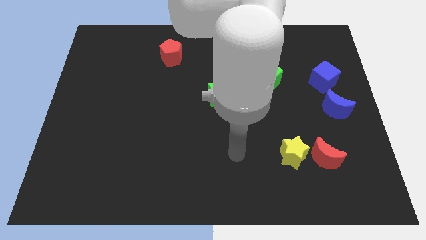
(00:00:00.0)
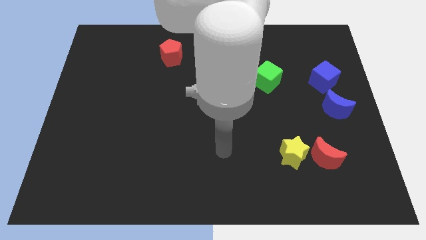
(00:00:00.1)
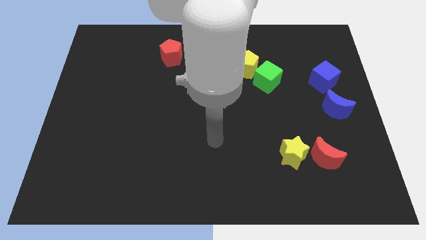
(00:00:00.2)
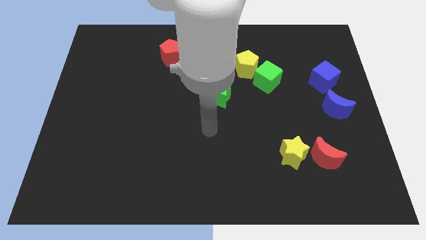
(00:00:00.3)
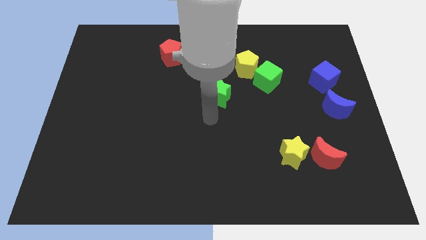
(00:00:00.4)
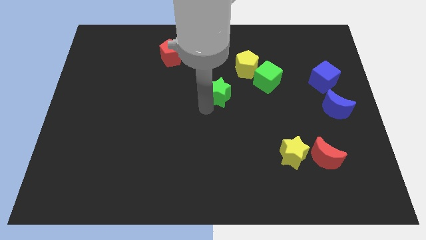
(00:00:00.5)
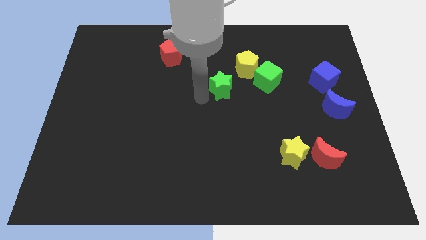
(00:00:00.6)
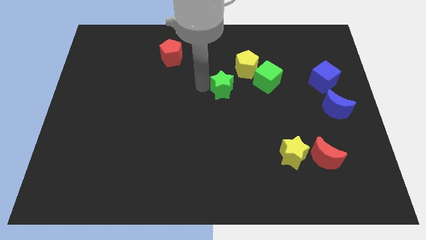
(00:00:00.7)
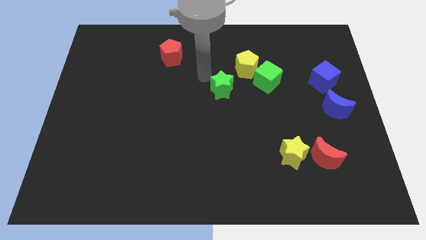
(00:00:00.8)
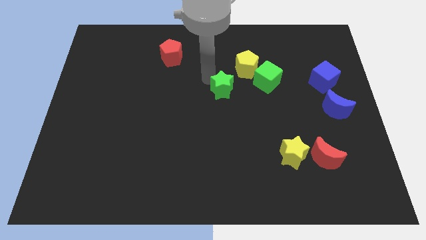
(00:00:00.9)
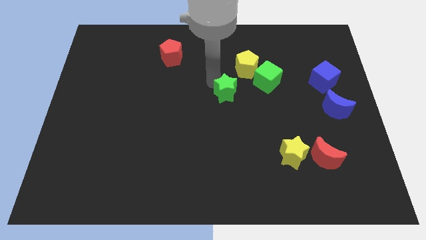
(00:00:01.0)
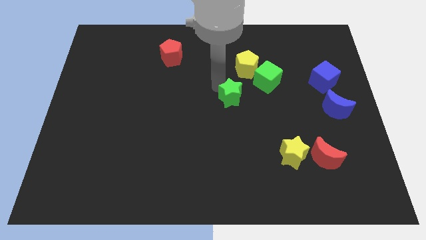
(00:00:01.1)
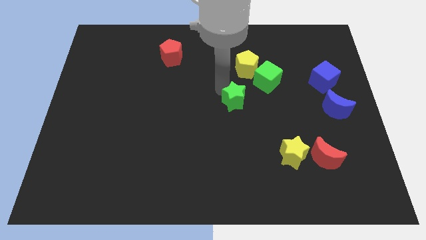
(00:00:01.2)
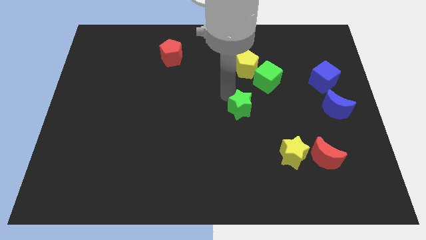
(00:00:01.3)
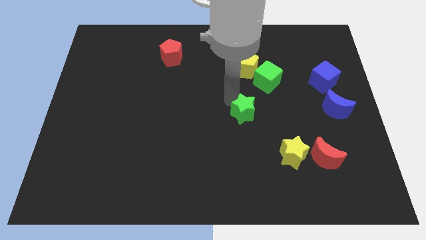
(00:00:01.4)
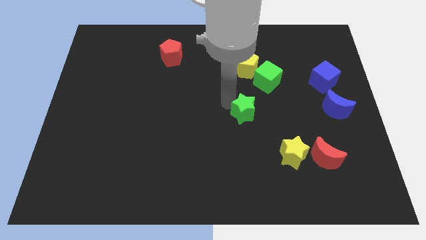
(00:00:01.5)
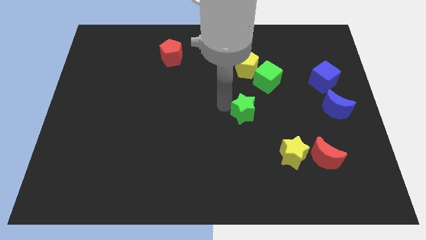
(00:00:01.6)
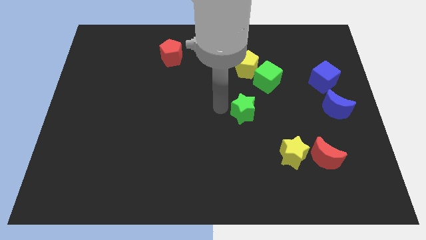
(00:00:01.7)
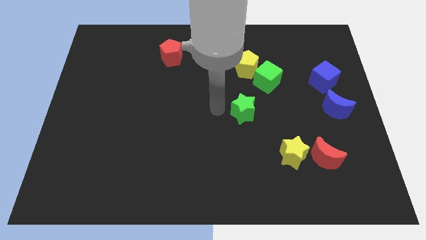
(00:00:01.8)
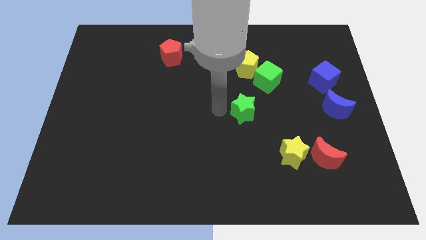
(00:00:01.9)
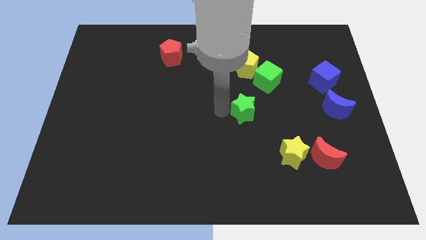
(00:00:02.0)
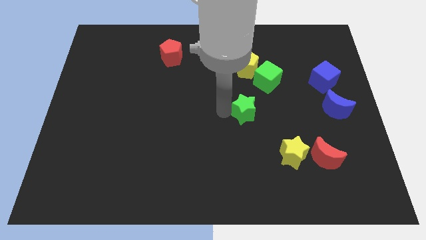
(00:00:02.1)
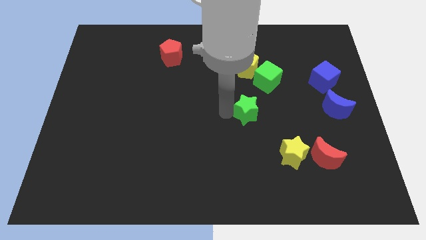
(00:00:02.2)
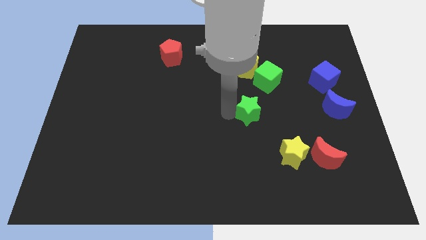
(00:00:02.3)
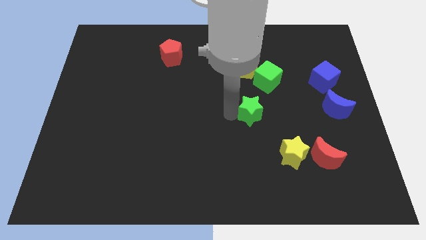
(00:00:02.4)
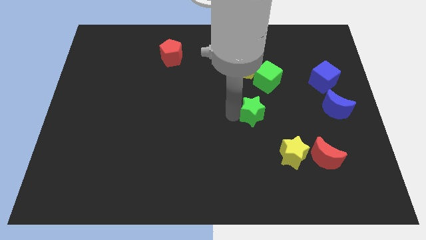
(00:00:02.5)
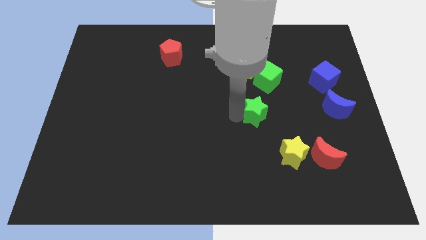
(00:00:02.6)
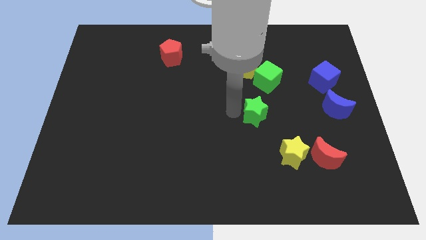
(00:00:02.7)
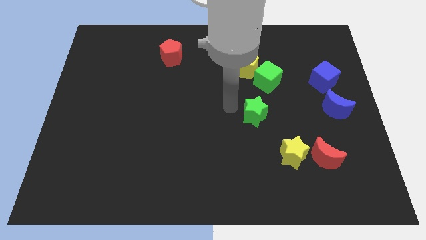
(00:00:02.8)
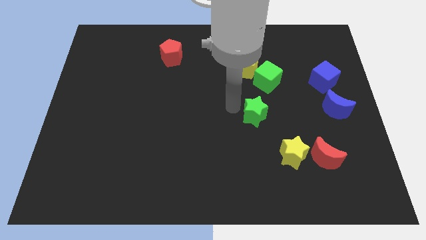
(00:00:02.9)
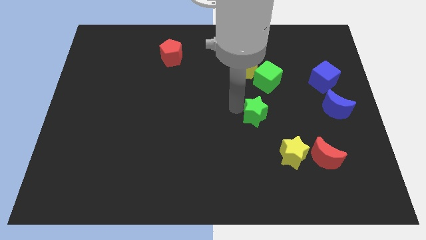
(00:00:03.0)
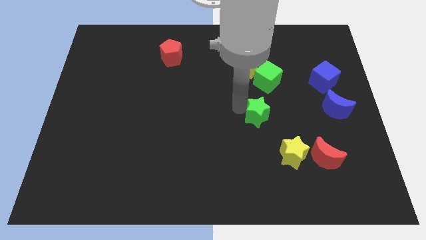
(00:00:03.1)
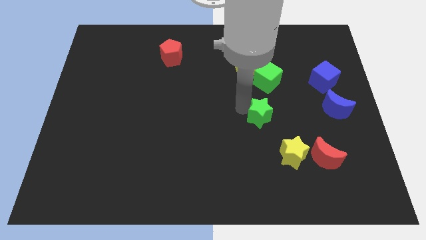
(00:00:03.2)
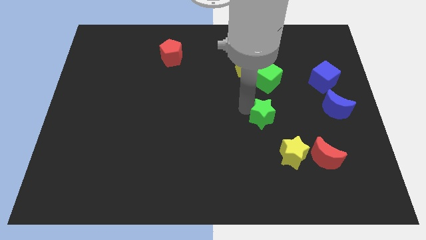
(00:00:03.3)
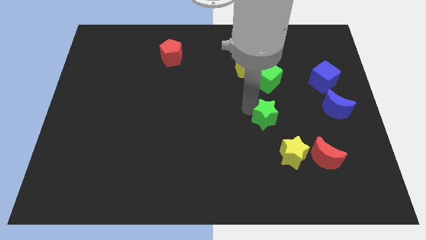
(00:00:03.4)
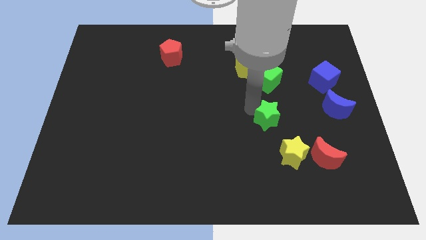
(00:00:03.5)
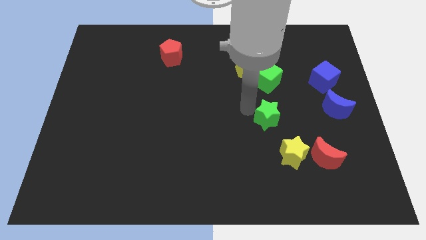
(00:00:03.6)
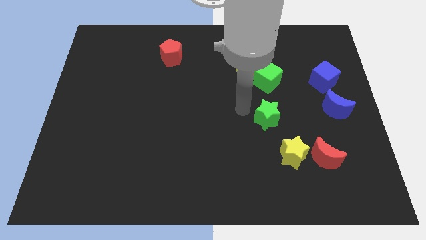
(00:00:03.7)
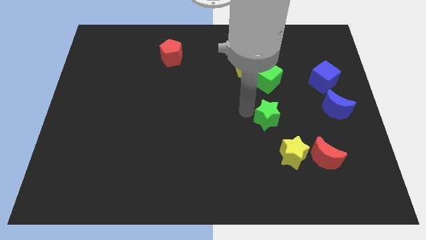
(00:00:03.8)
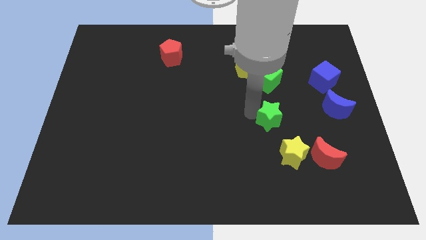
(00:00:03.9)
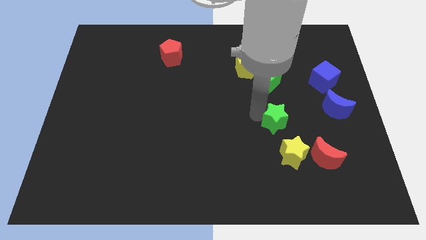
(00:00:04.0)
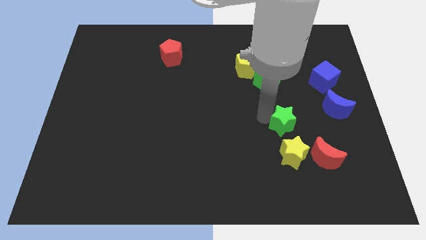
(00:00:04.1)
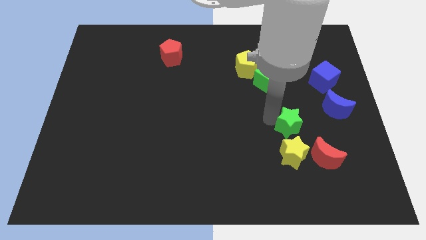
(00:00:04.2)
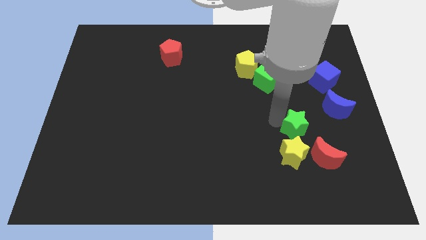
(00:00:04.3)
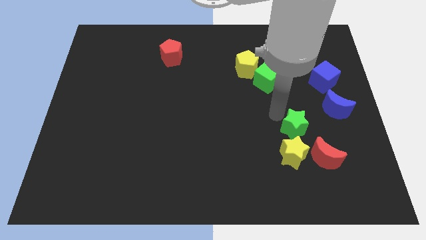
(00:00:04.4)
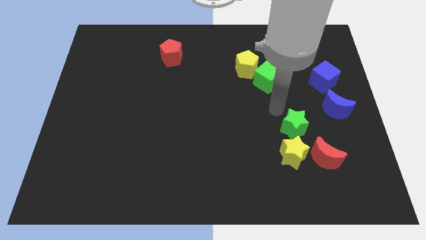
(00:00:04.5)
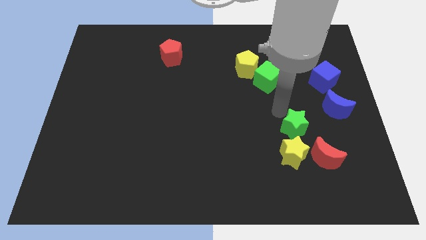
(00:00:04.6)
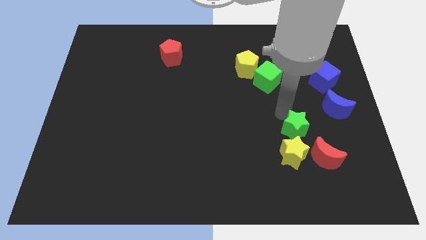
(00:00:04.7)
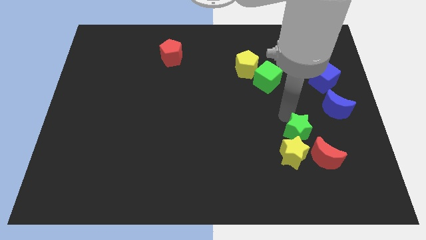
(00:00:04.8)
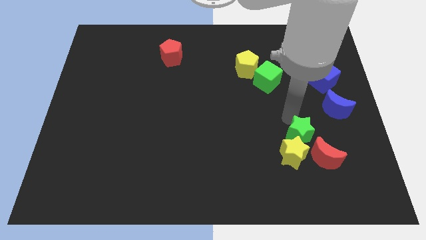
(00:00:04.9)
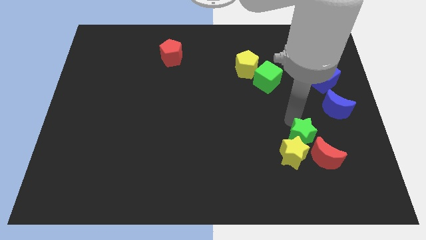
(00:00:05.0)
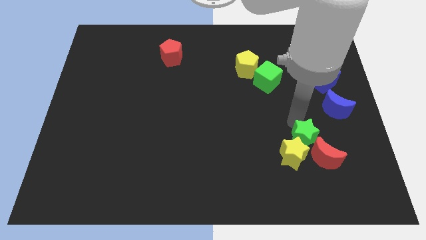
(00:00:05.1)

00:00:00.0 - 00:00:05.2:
move the green star to the red moon

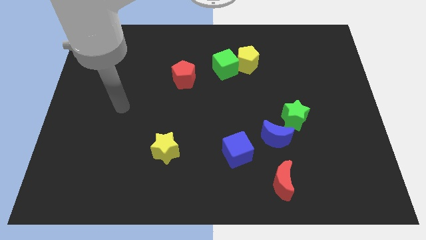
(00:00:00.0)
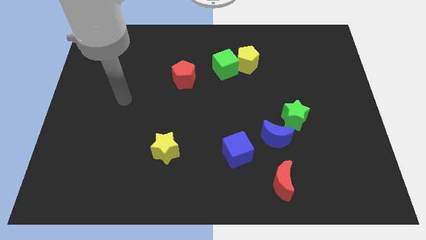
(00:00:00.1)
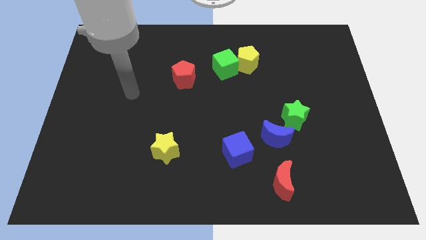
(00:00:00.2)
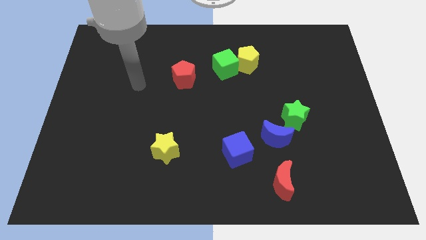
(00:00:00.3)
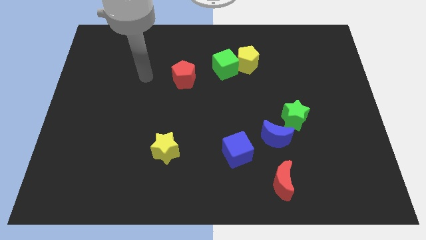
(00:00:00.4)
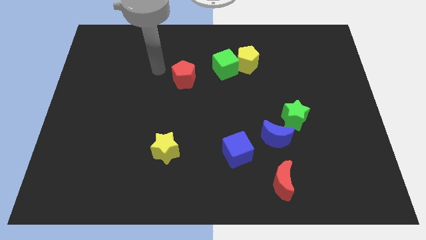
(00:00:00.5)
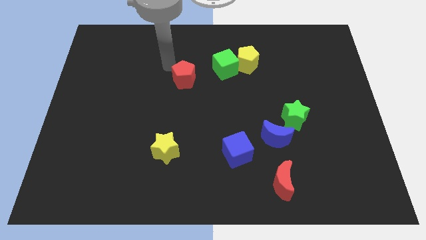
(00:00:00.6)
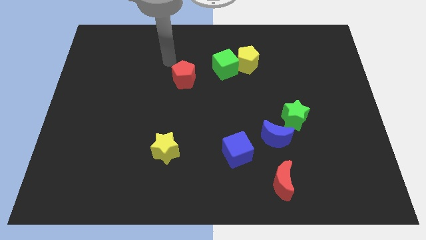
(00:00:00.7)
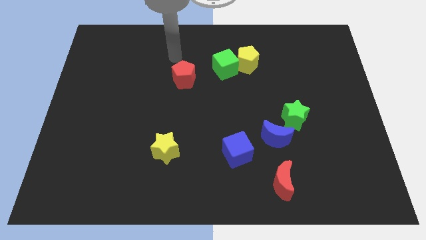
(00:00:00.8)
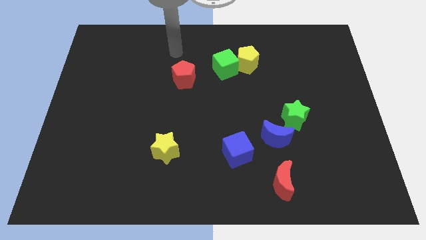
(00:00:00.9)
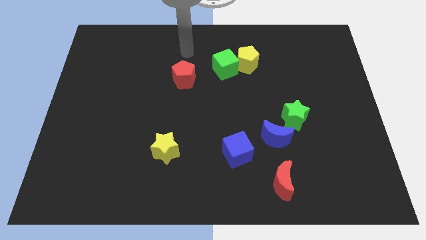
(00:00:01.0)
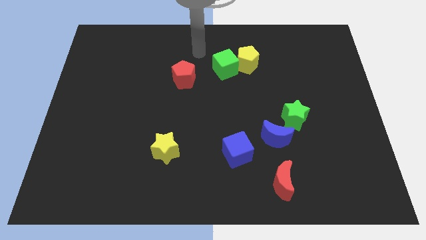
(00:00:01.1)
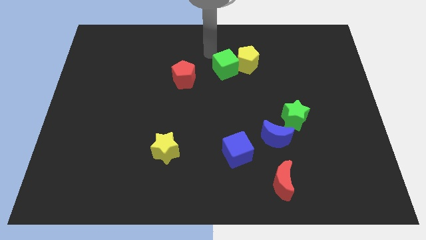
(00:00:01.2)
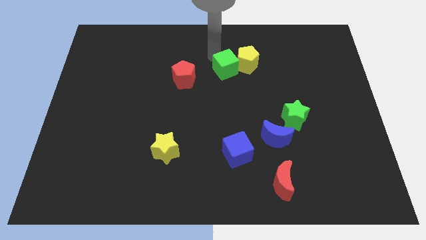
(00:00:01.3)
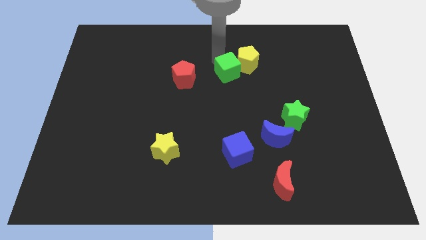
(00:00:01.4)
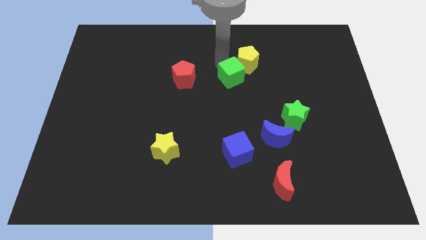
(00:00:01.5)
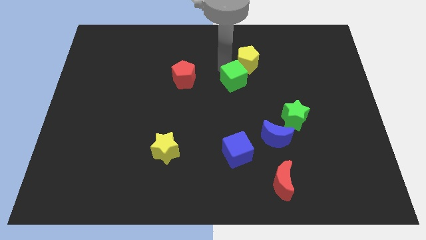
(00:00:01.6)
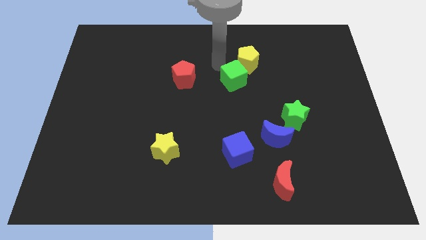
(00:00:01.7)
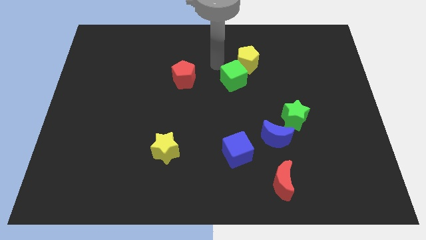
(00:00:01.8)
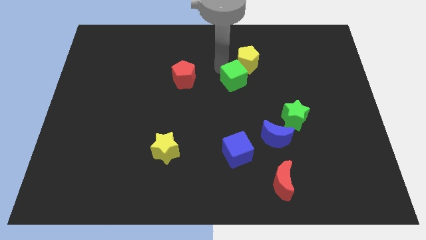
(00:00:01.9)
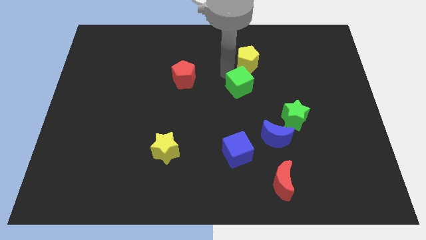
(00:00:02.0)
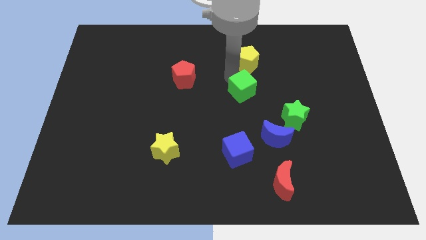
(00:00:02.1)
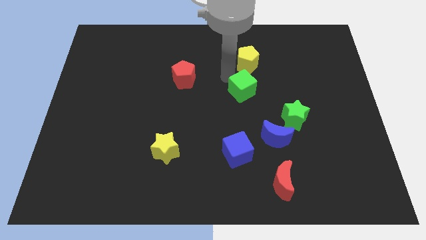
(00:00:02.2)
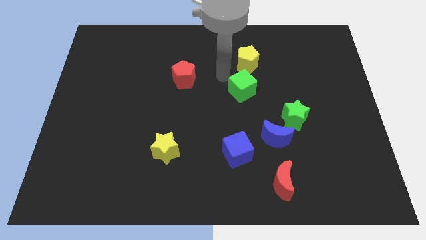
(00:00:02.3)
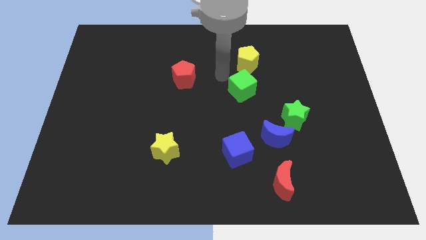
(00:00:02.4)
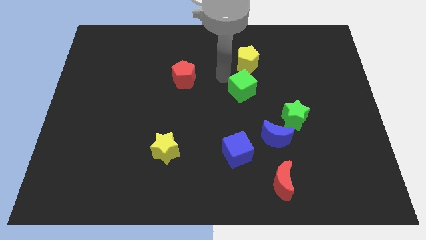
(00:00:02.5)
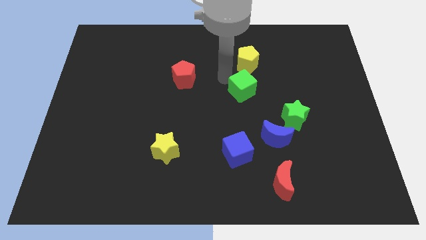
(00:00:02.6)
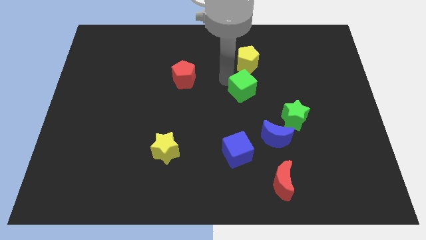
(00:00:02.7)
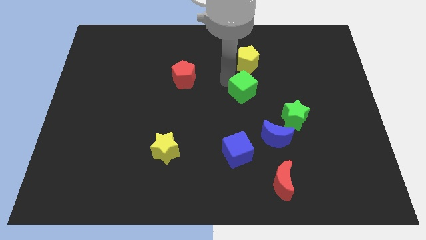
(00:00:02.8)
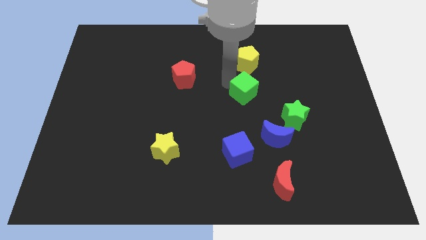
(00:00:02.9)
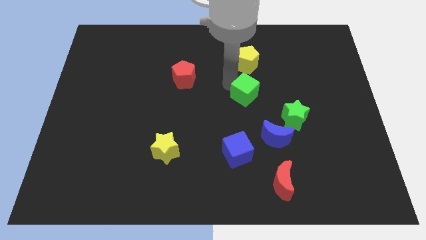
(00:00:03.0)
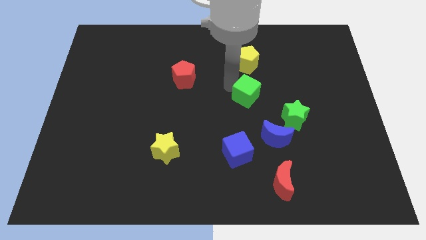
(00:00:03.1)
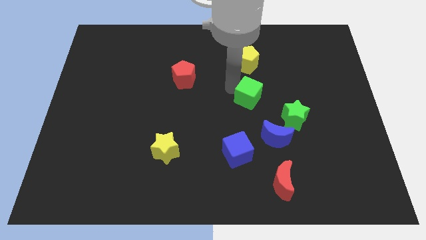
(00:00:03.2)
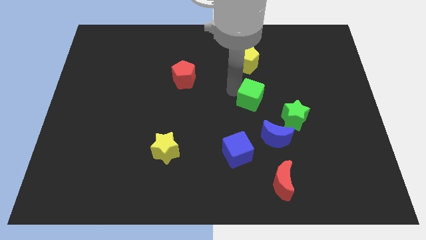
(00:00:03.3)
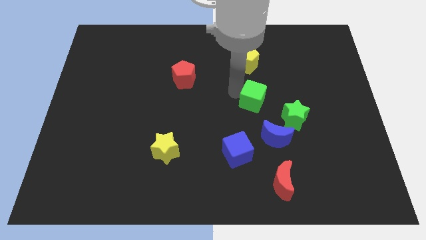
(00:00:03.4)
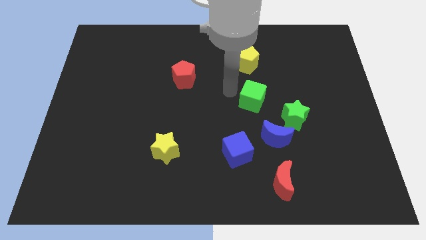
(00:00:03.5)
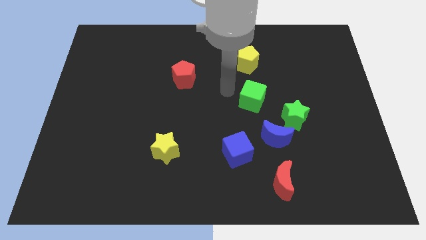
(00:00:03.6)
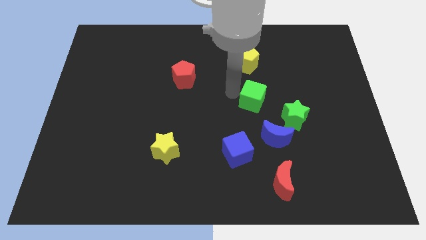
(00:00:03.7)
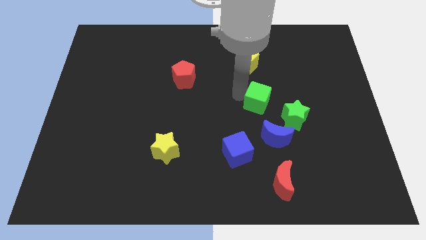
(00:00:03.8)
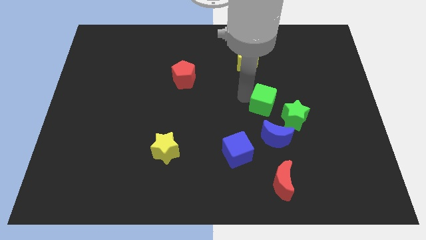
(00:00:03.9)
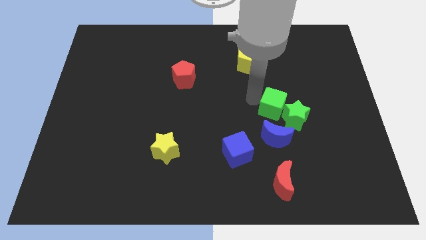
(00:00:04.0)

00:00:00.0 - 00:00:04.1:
push the green cube to the green star
